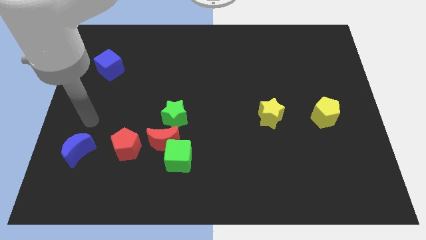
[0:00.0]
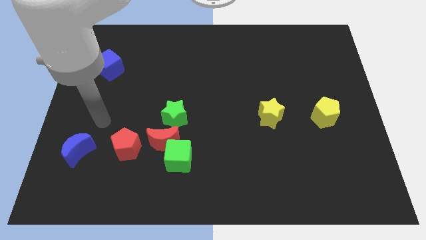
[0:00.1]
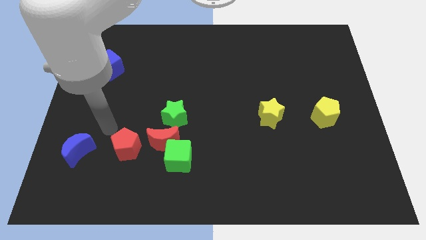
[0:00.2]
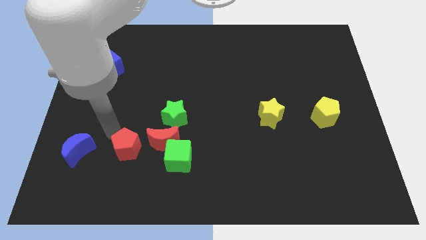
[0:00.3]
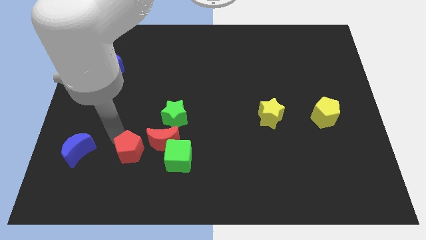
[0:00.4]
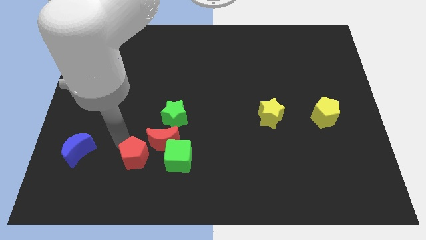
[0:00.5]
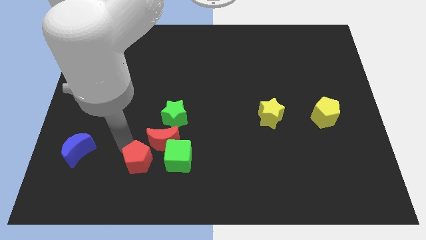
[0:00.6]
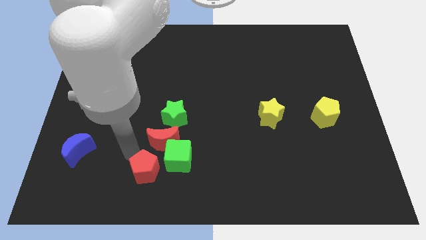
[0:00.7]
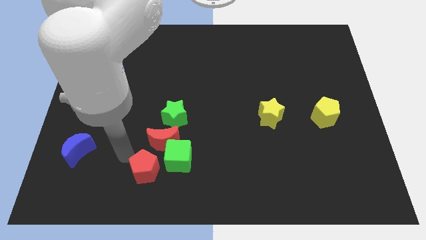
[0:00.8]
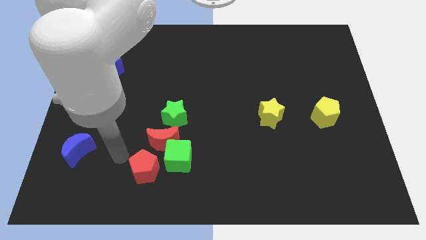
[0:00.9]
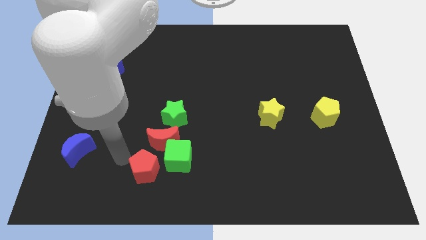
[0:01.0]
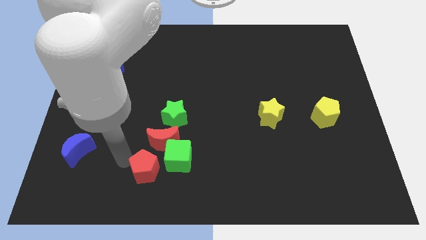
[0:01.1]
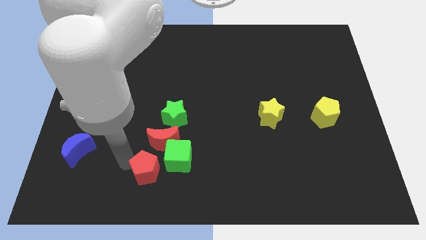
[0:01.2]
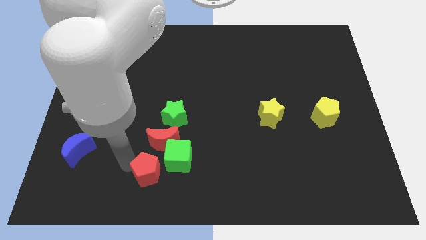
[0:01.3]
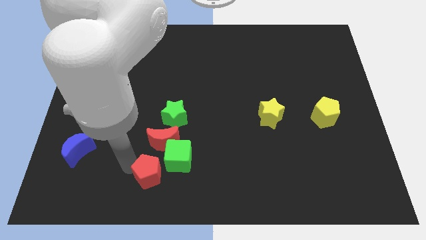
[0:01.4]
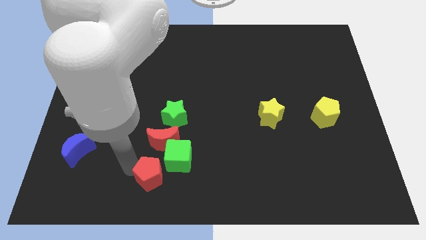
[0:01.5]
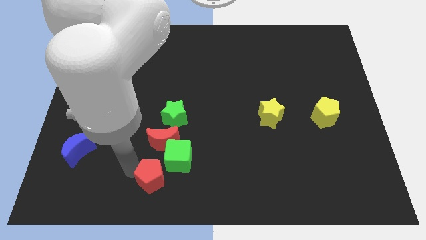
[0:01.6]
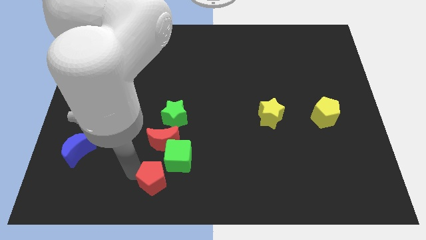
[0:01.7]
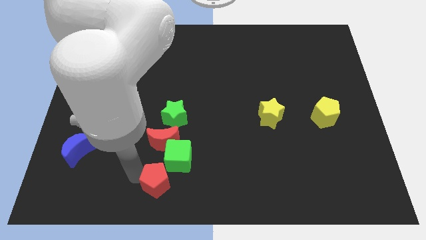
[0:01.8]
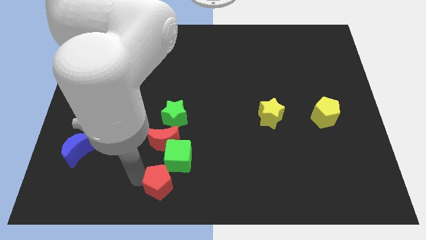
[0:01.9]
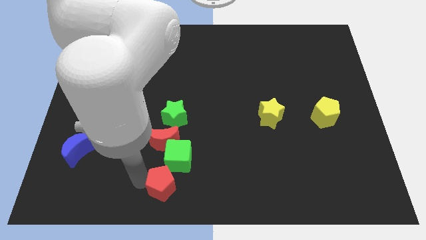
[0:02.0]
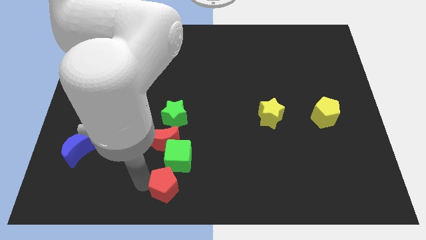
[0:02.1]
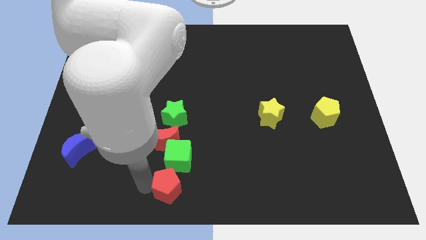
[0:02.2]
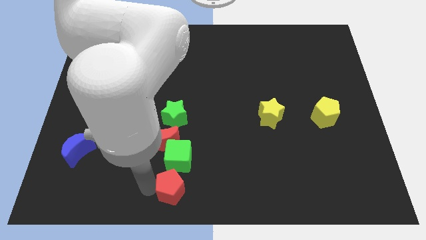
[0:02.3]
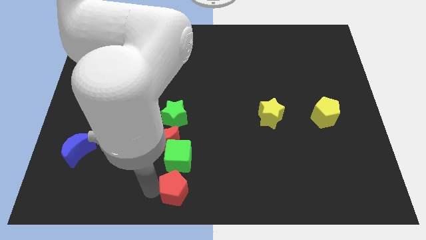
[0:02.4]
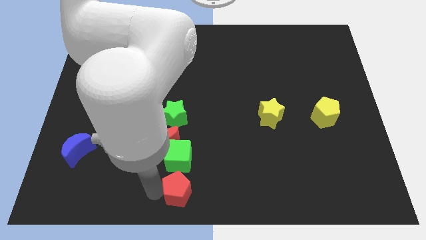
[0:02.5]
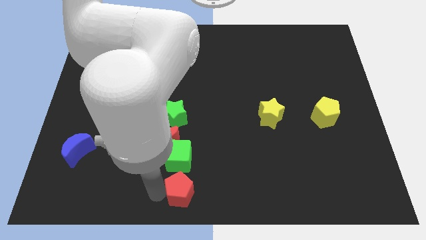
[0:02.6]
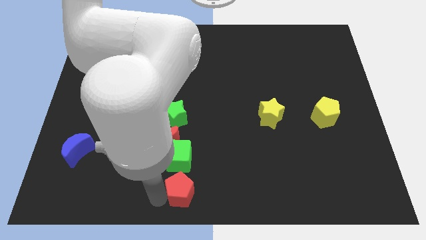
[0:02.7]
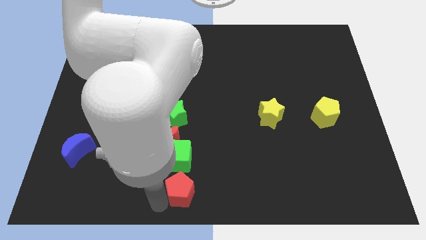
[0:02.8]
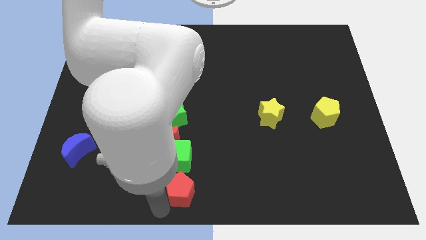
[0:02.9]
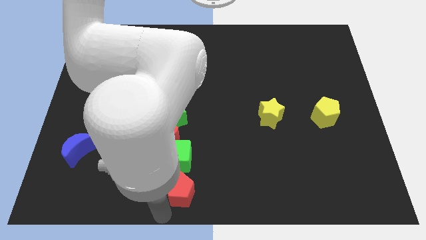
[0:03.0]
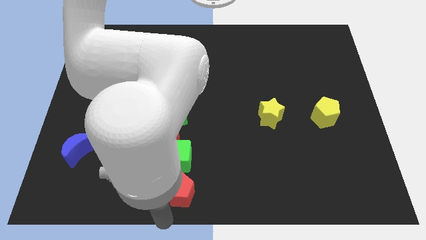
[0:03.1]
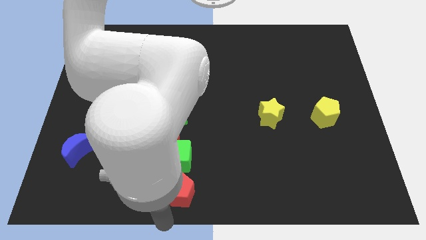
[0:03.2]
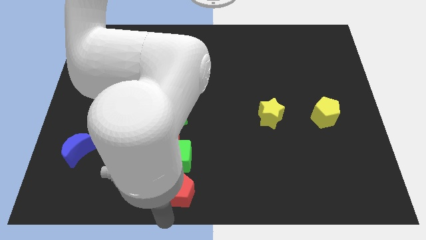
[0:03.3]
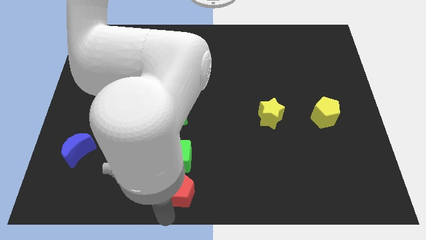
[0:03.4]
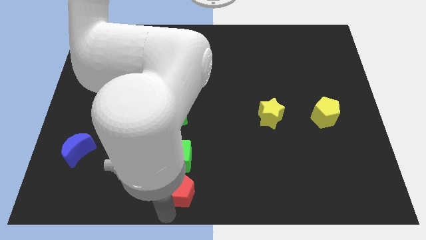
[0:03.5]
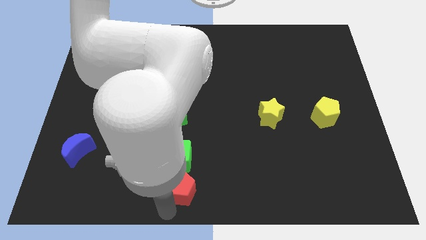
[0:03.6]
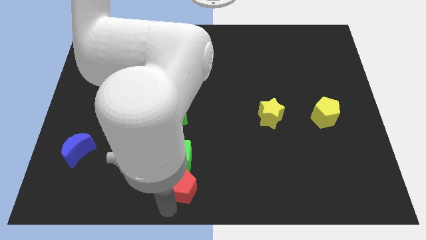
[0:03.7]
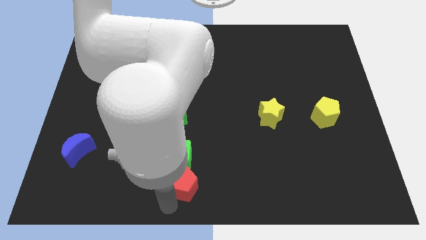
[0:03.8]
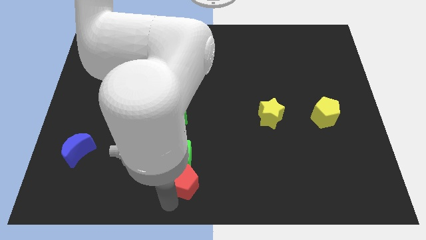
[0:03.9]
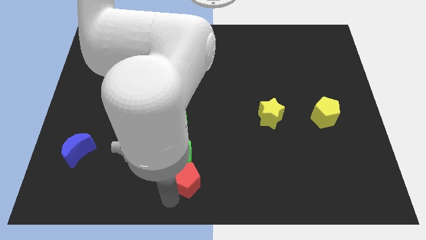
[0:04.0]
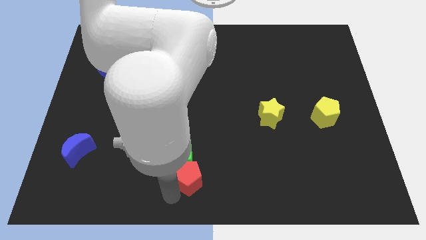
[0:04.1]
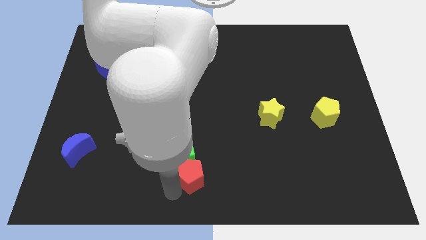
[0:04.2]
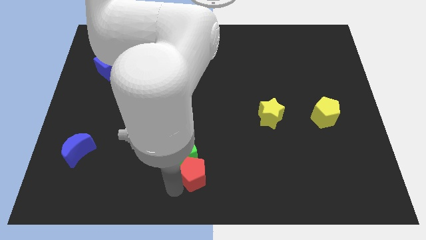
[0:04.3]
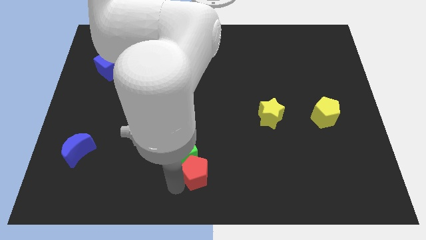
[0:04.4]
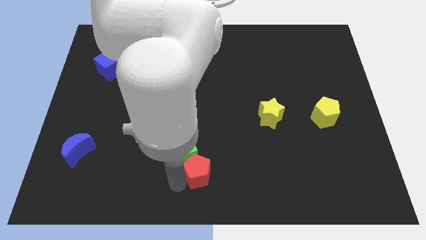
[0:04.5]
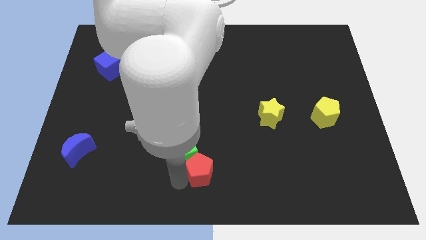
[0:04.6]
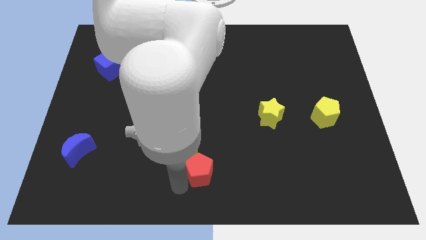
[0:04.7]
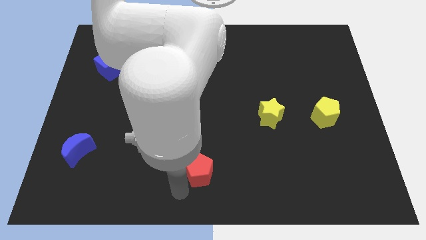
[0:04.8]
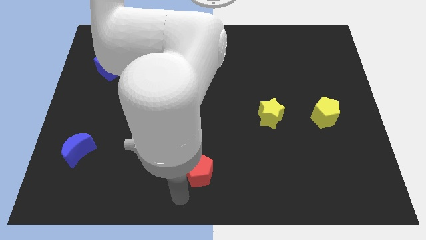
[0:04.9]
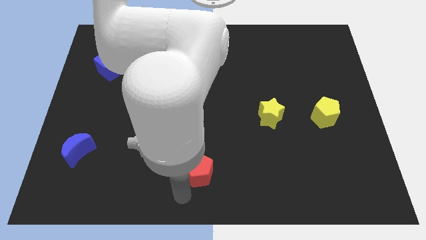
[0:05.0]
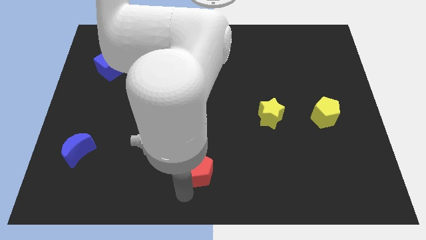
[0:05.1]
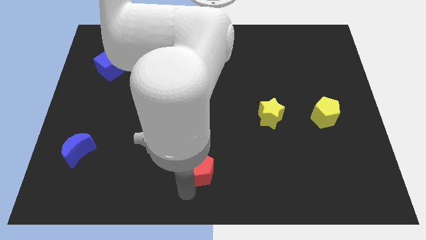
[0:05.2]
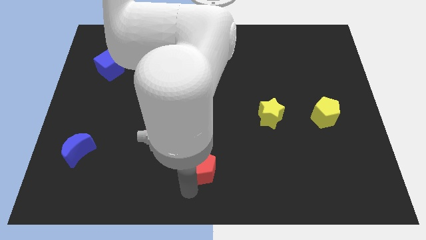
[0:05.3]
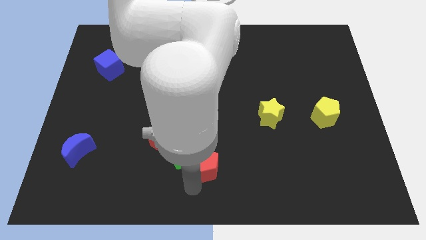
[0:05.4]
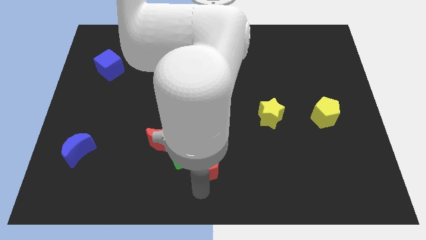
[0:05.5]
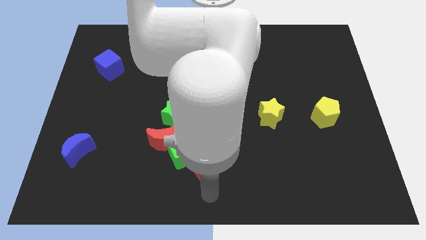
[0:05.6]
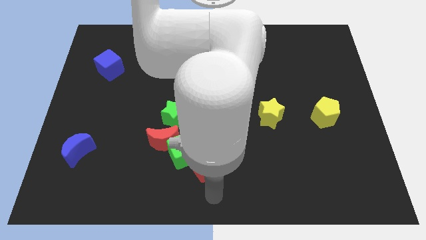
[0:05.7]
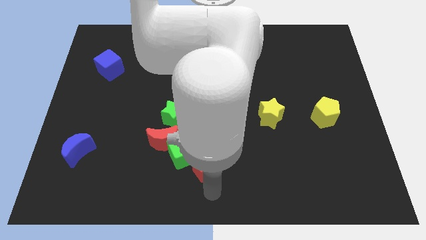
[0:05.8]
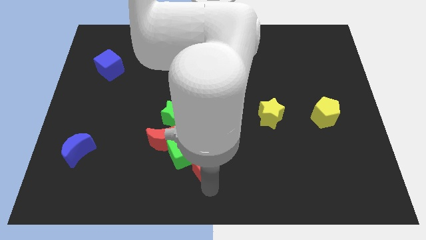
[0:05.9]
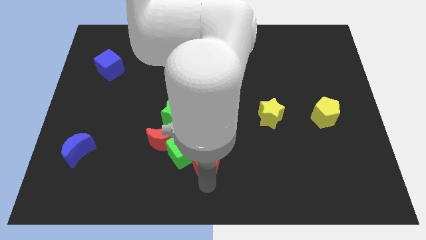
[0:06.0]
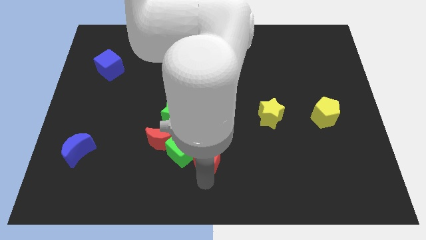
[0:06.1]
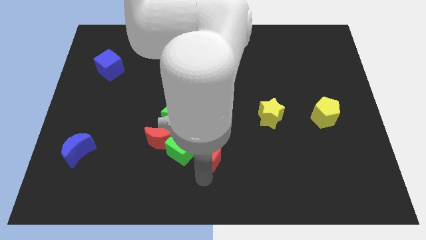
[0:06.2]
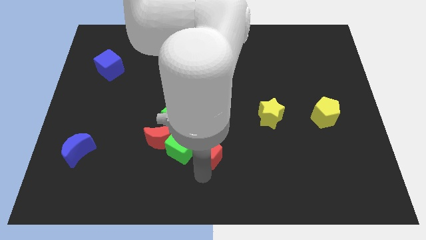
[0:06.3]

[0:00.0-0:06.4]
slide the red pentagon to the bottom right of the green star
